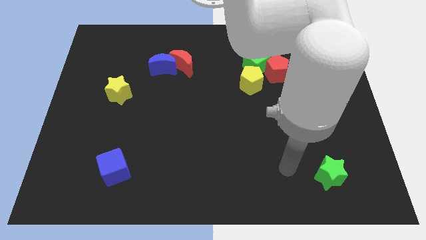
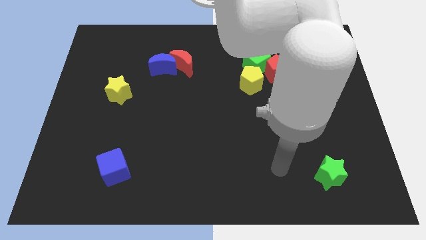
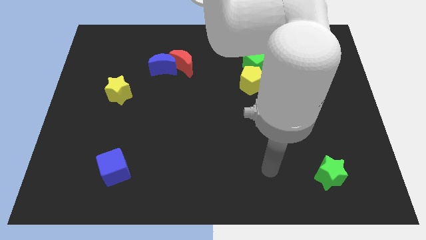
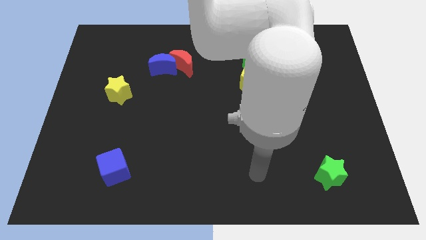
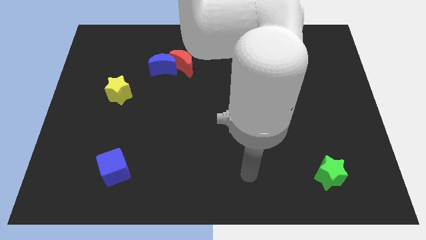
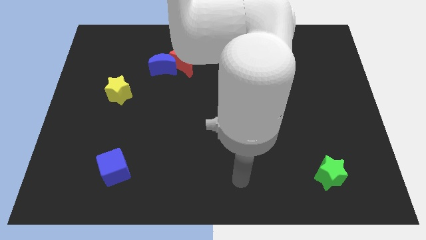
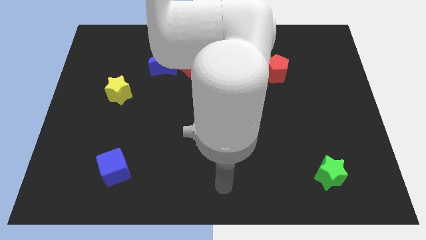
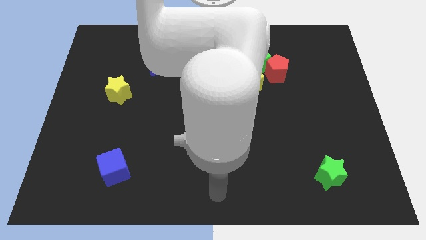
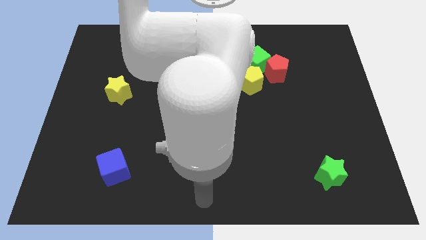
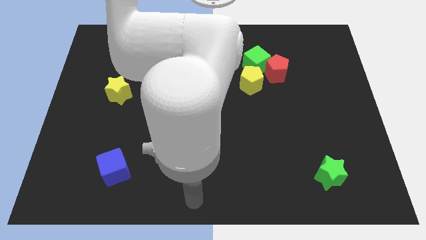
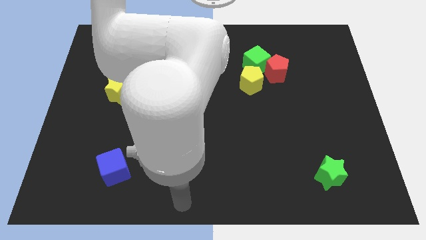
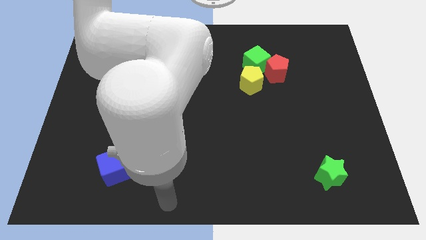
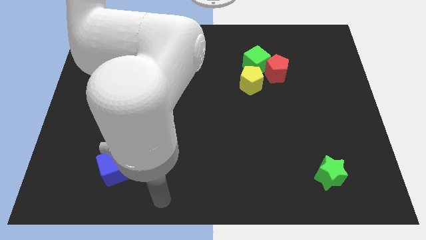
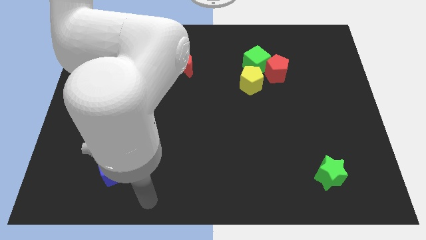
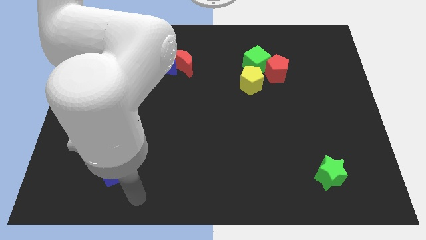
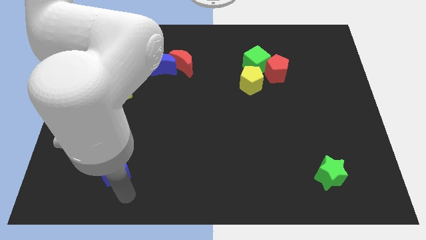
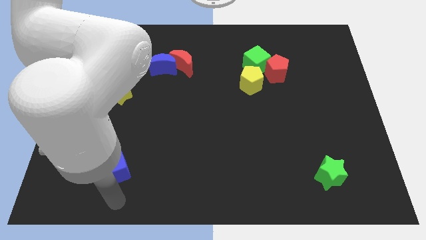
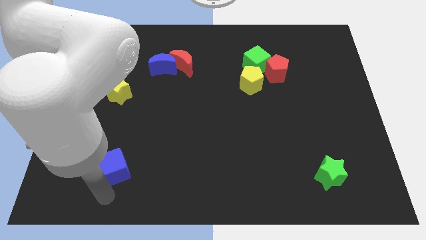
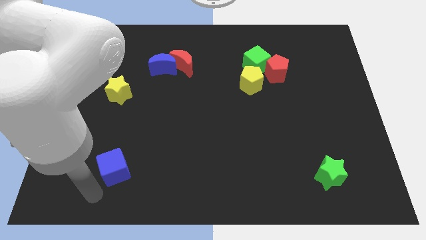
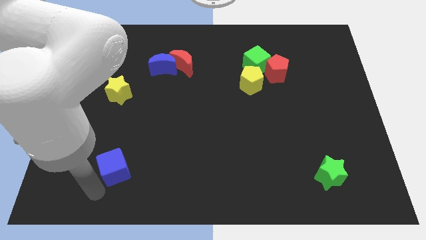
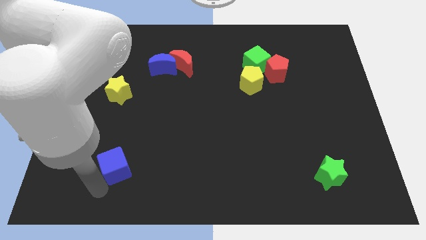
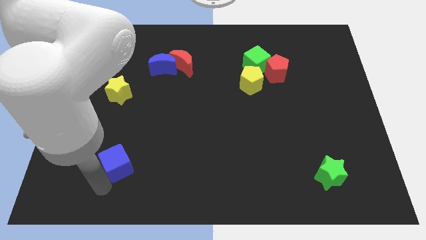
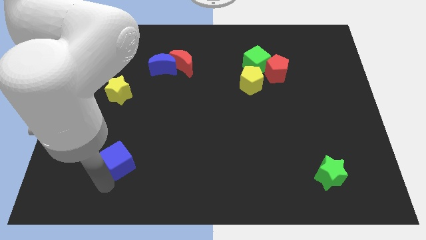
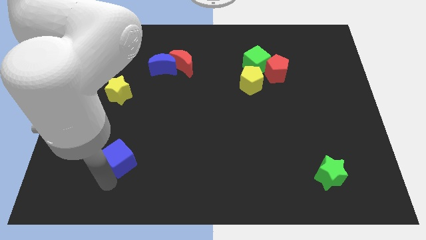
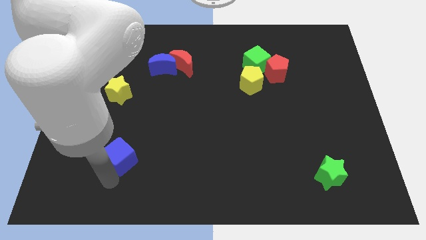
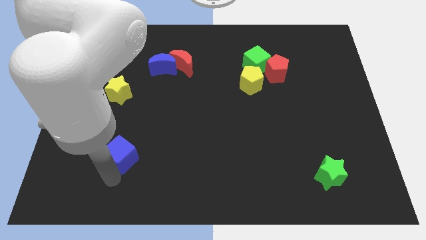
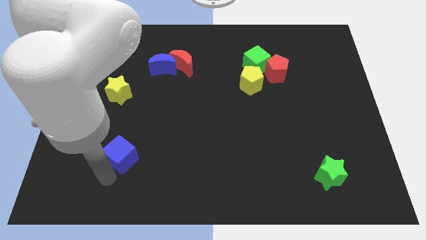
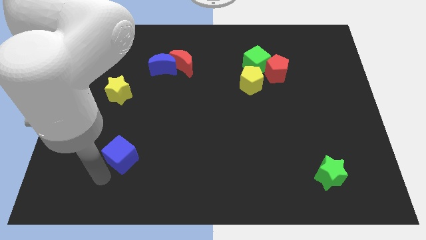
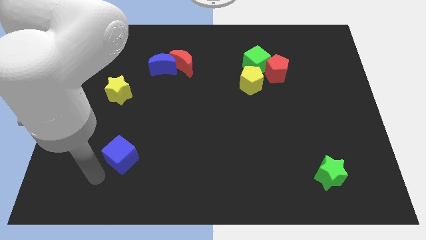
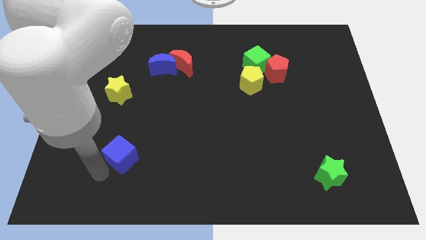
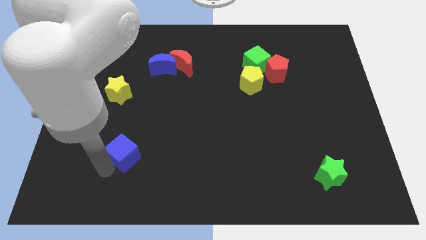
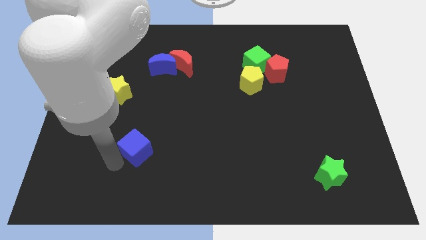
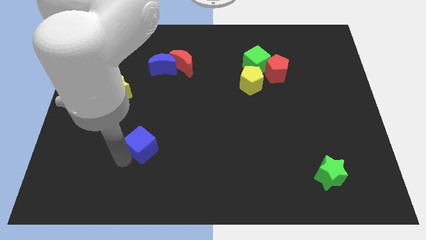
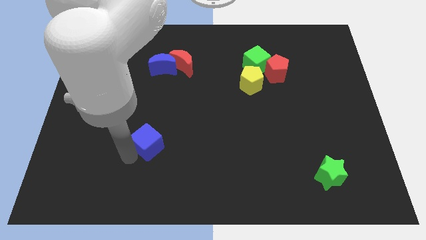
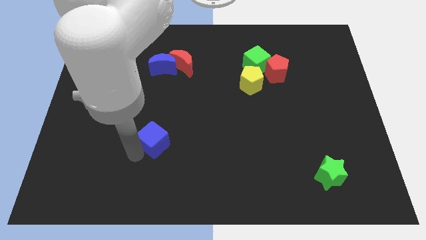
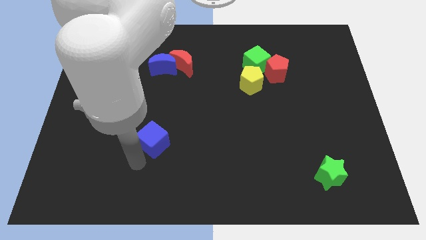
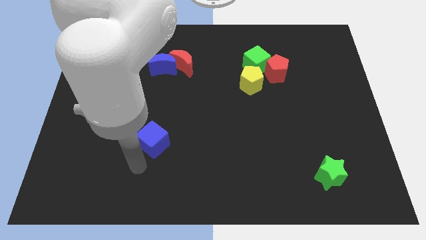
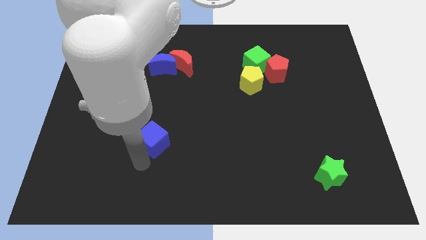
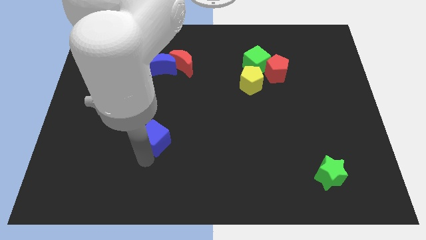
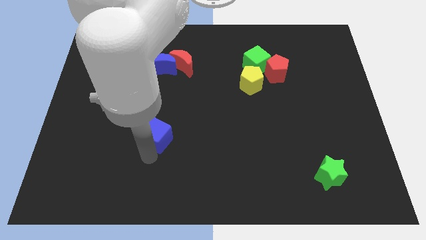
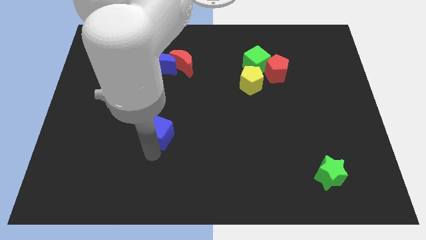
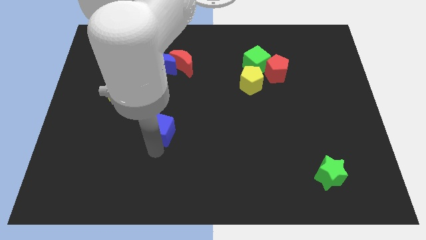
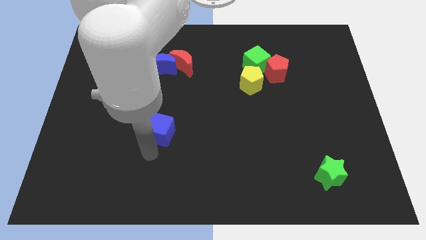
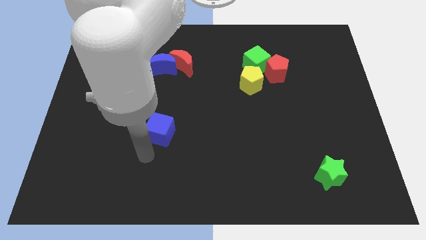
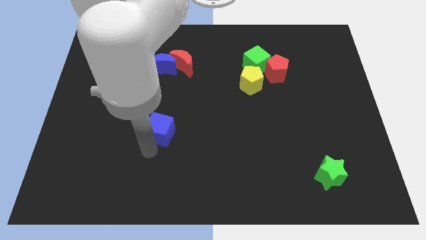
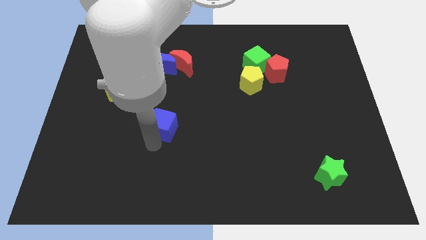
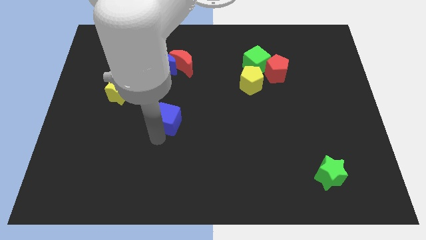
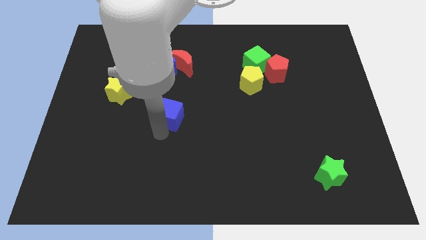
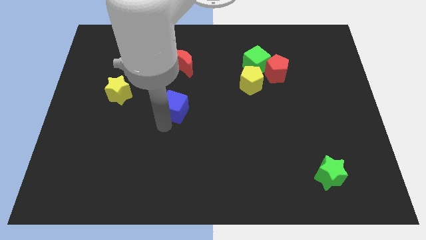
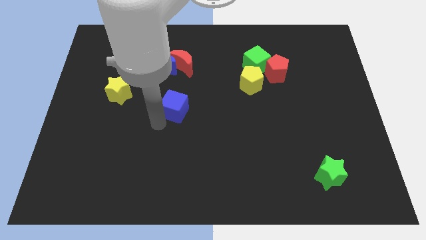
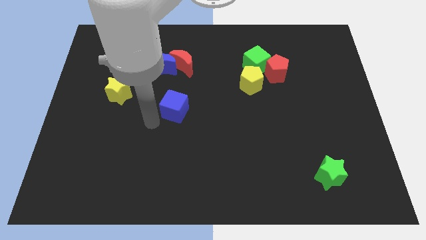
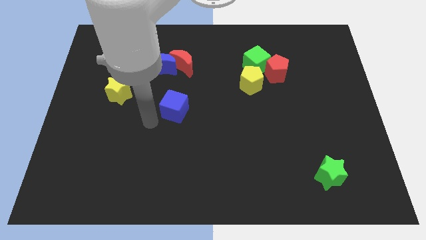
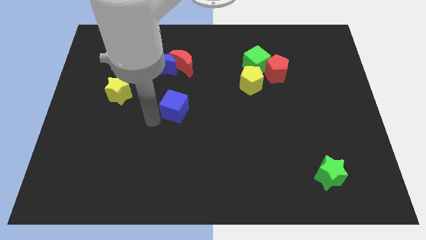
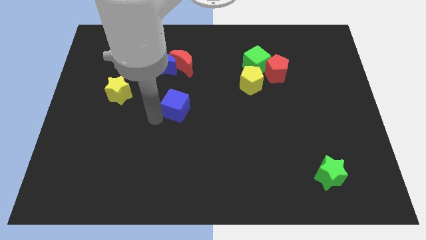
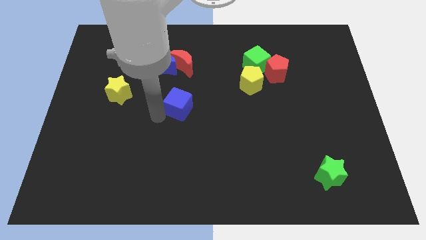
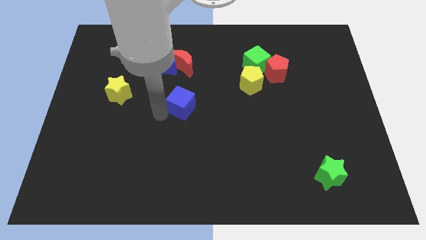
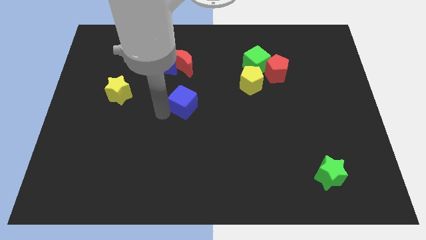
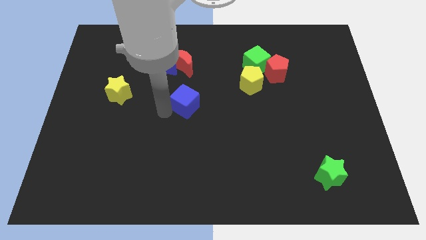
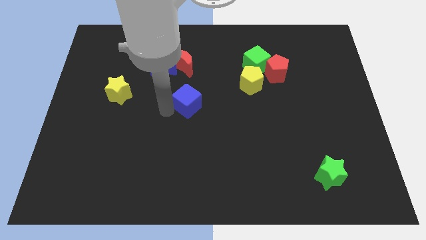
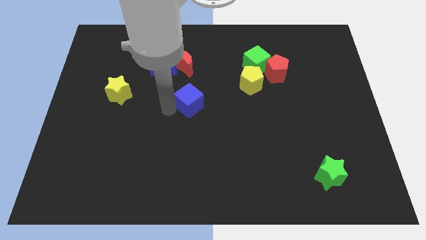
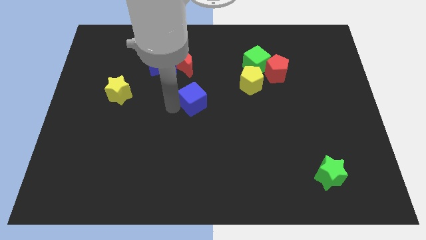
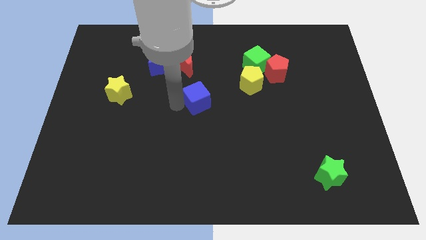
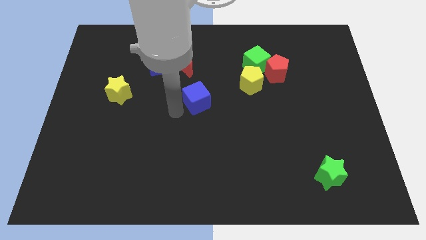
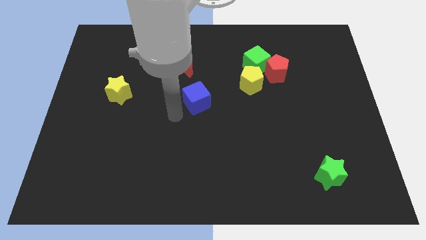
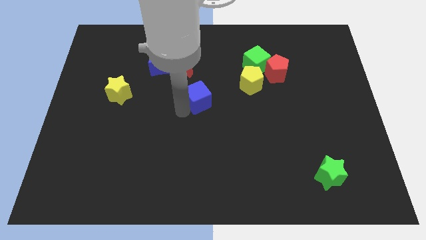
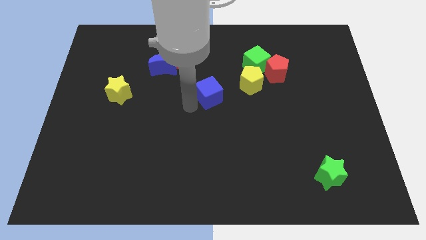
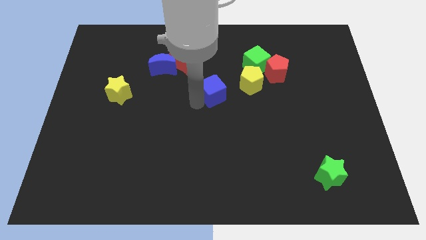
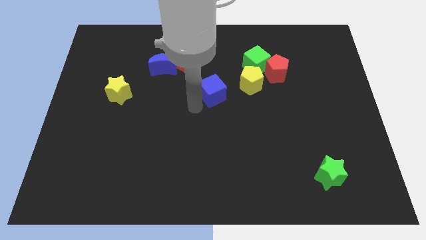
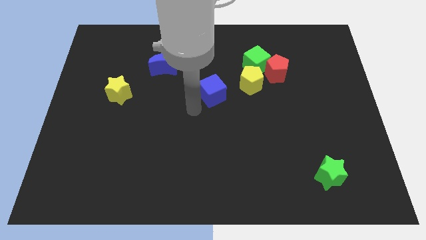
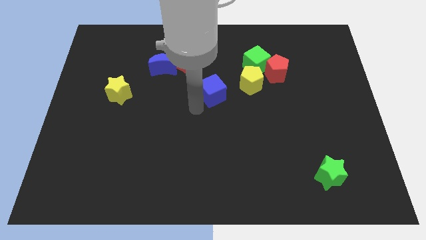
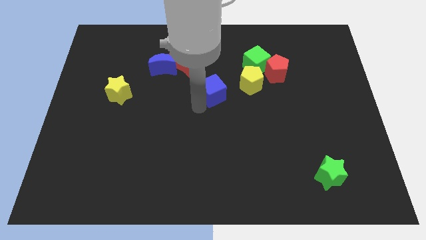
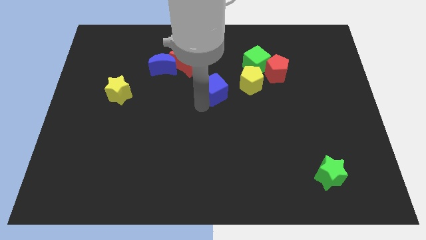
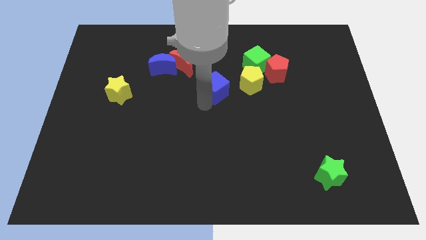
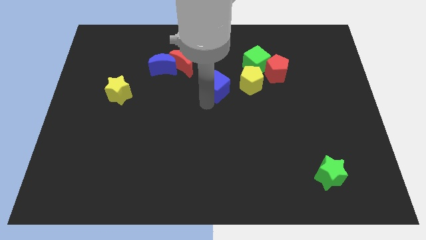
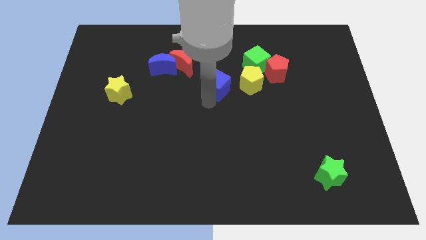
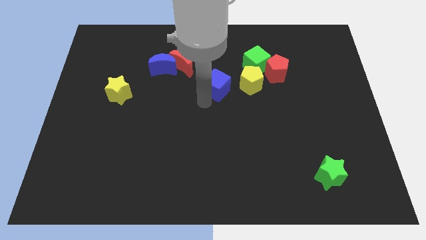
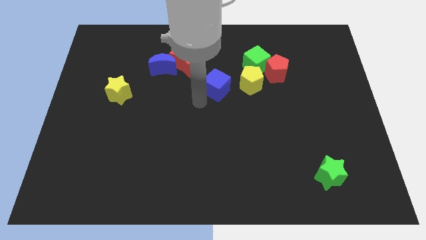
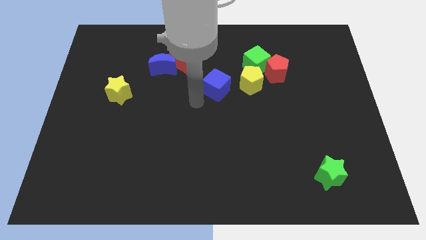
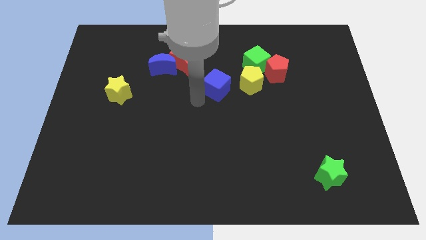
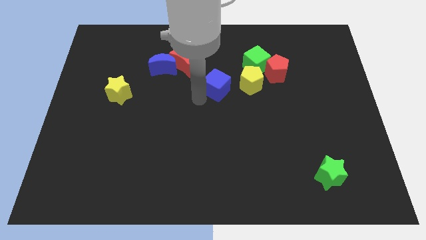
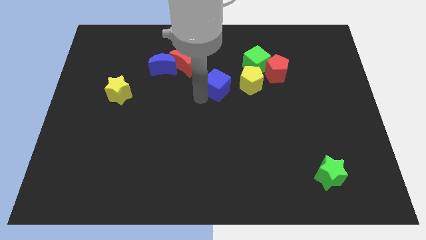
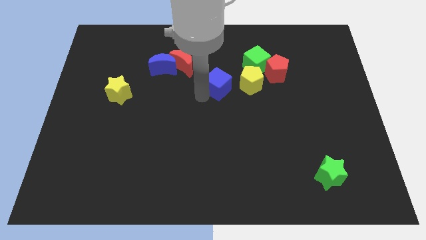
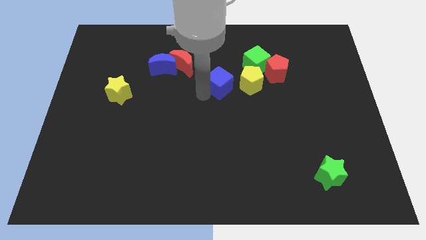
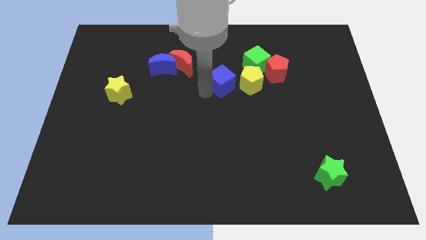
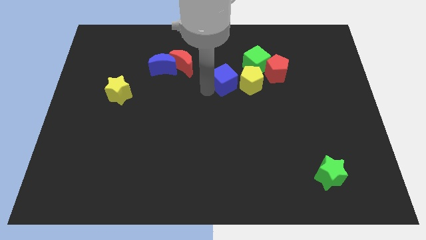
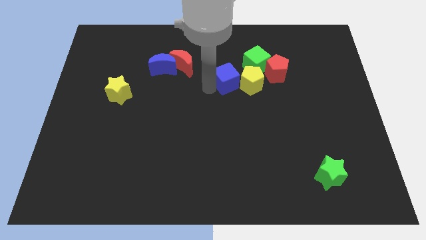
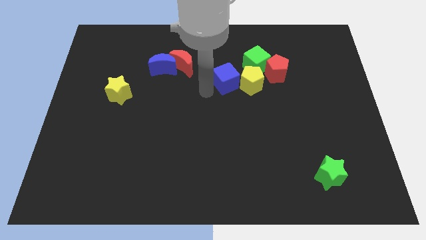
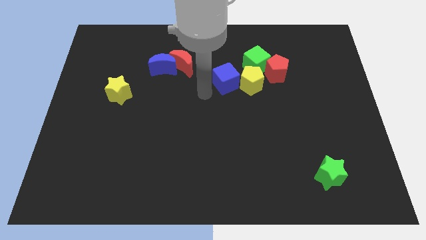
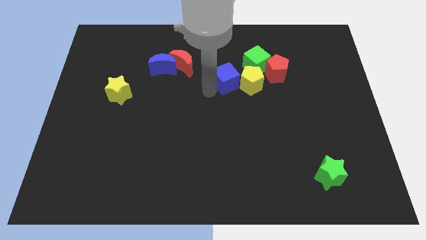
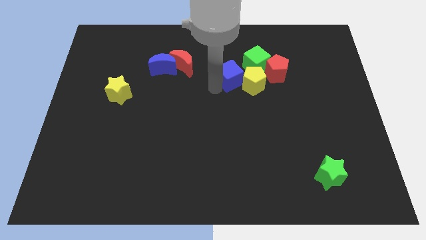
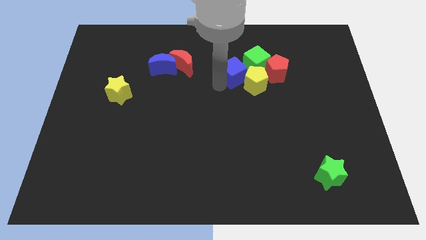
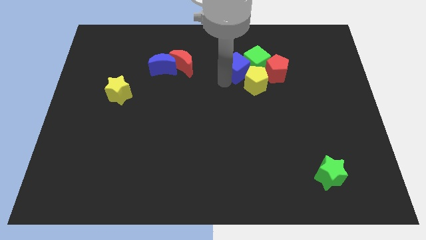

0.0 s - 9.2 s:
move the blue cube towards the green cube
